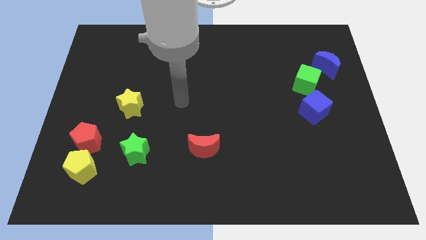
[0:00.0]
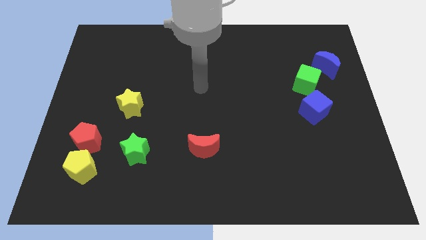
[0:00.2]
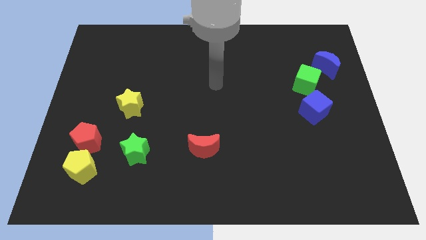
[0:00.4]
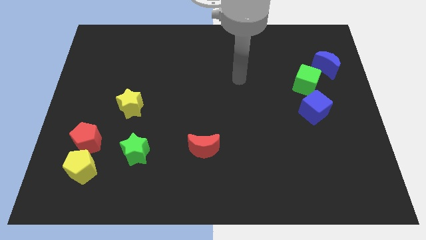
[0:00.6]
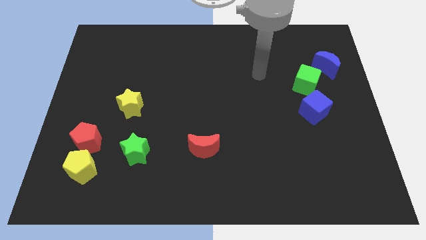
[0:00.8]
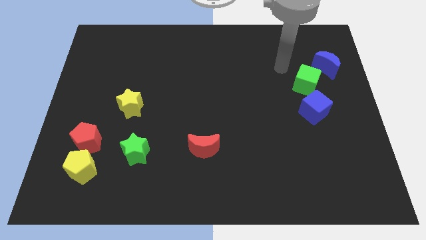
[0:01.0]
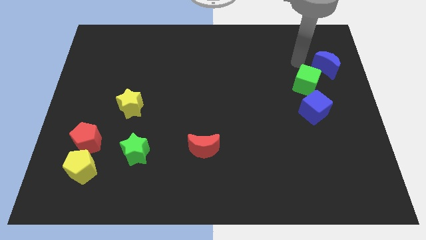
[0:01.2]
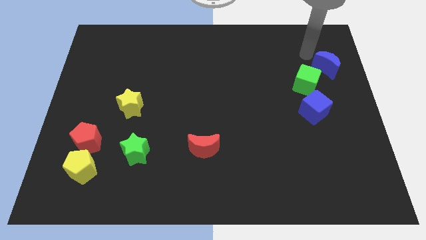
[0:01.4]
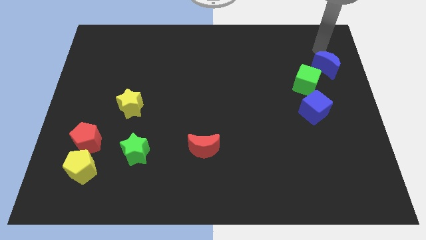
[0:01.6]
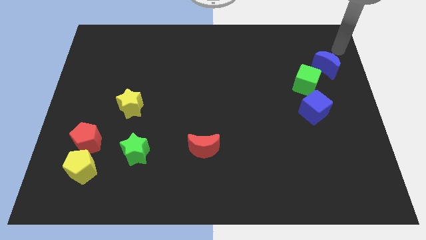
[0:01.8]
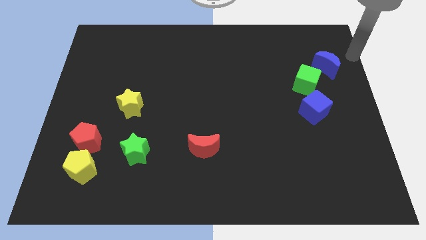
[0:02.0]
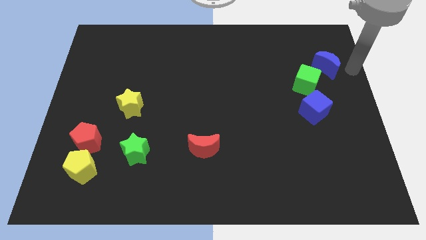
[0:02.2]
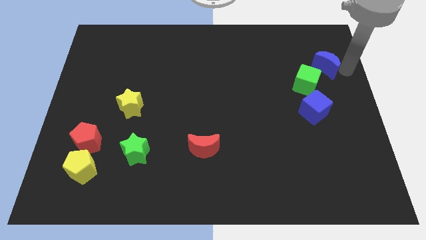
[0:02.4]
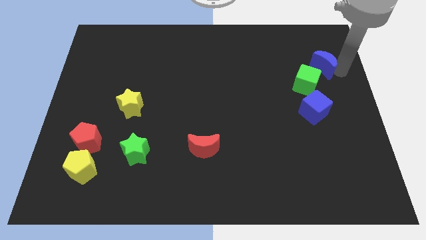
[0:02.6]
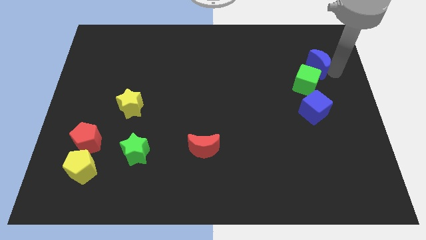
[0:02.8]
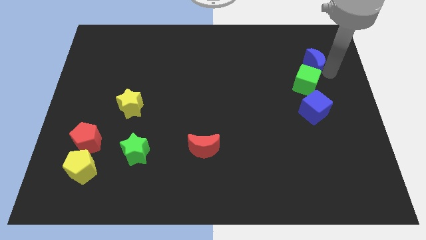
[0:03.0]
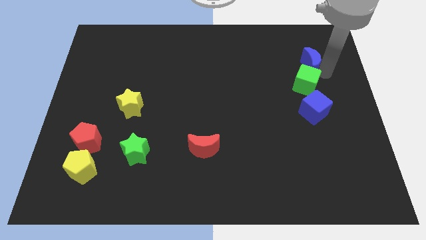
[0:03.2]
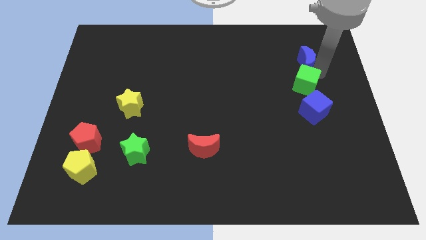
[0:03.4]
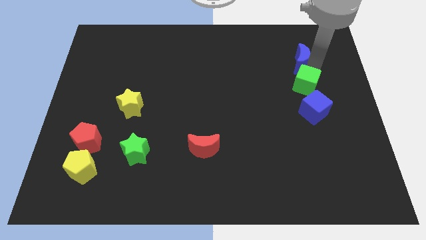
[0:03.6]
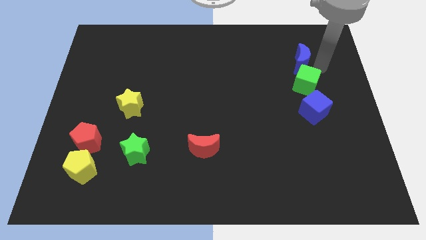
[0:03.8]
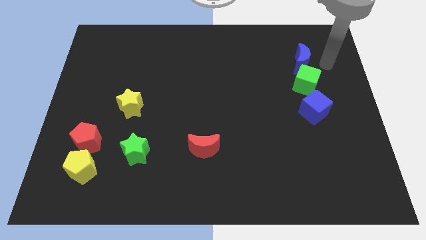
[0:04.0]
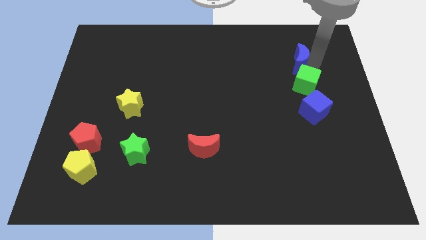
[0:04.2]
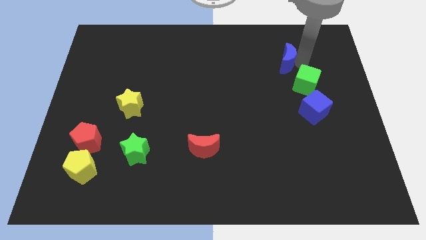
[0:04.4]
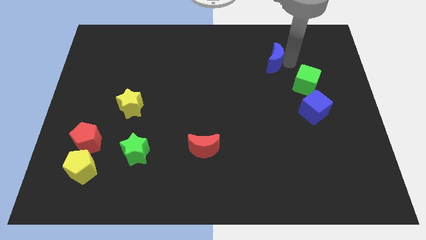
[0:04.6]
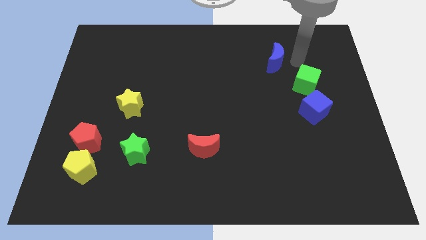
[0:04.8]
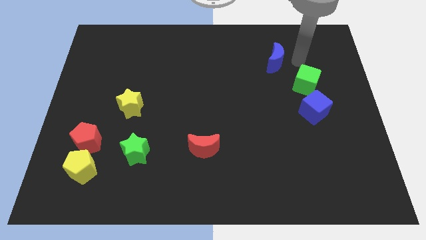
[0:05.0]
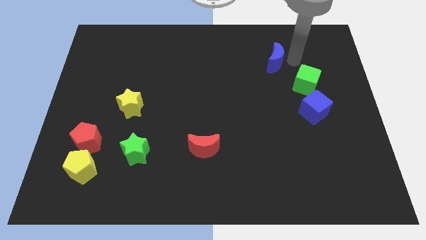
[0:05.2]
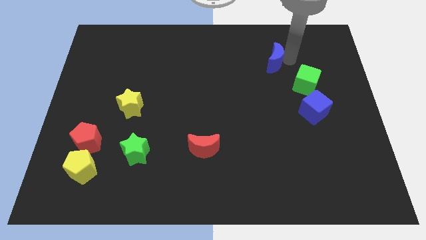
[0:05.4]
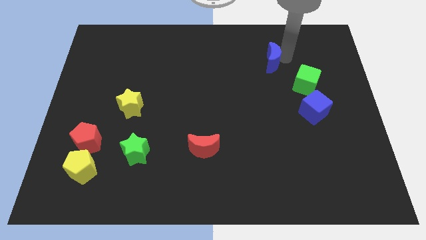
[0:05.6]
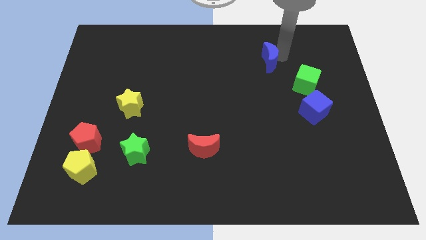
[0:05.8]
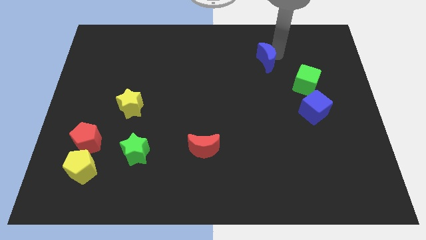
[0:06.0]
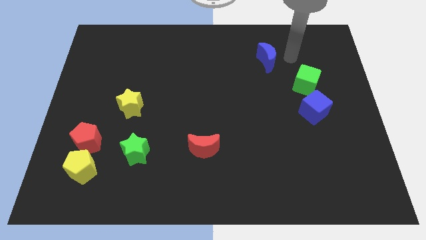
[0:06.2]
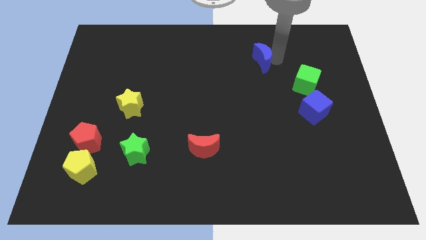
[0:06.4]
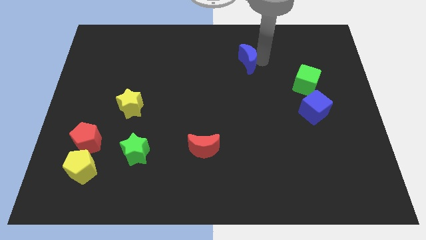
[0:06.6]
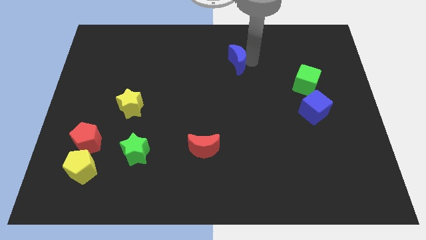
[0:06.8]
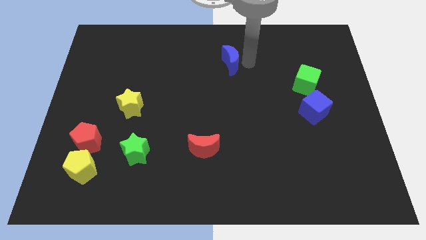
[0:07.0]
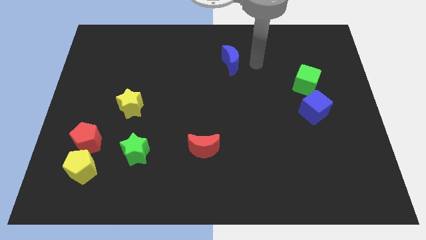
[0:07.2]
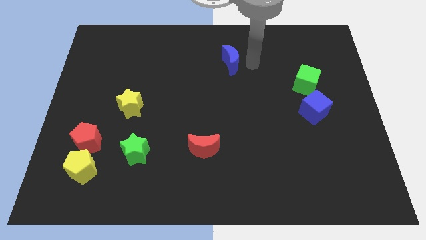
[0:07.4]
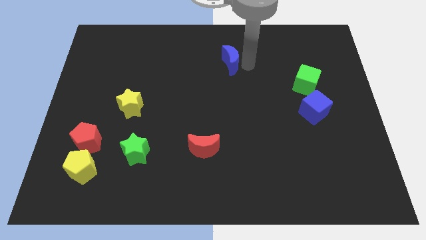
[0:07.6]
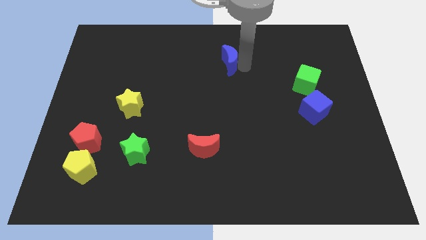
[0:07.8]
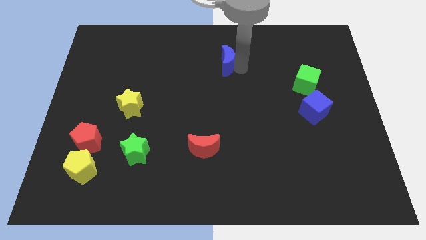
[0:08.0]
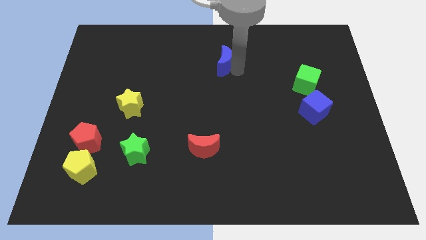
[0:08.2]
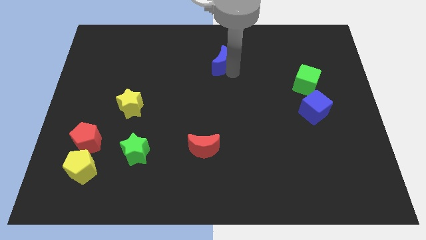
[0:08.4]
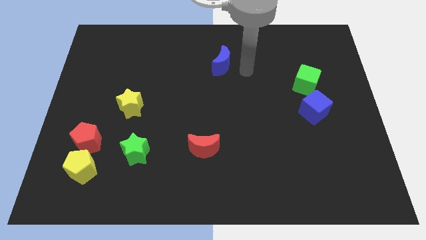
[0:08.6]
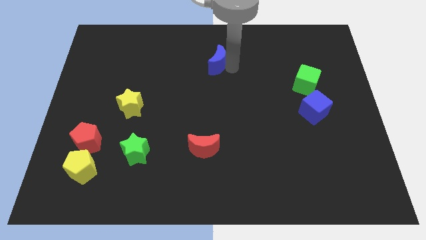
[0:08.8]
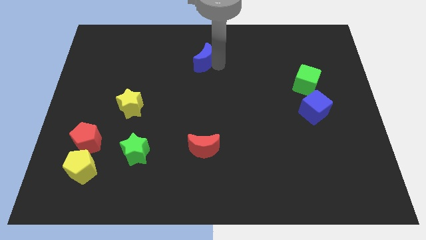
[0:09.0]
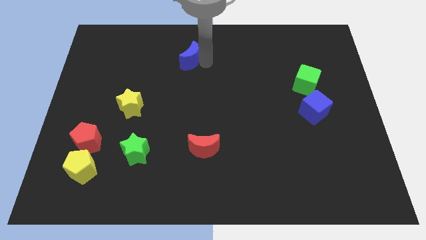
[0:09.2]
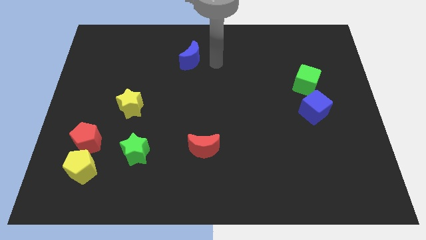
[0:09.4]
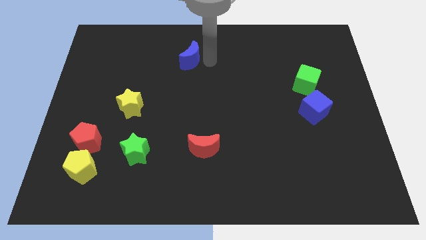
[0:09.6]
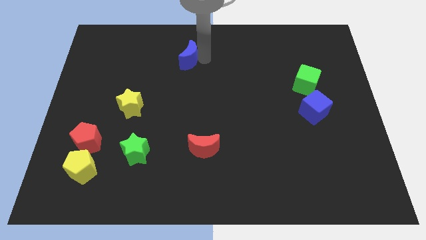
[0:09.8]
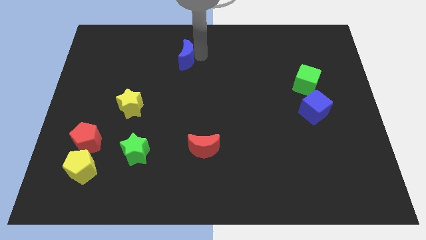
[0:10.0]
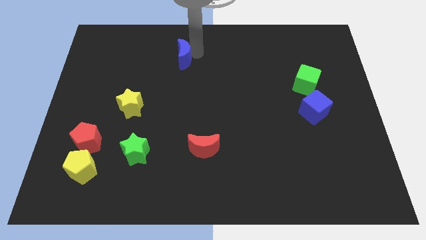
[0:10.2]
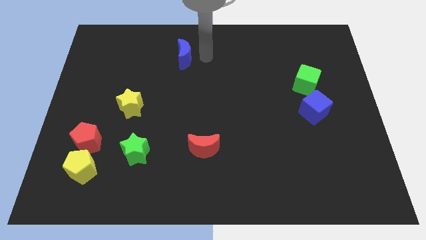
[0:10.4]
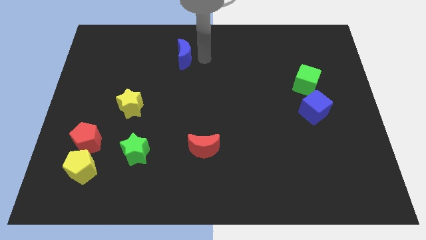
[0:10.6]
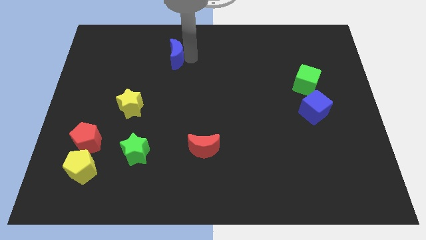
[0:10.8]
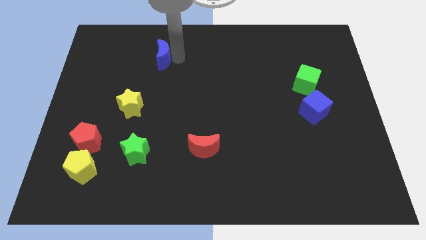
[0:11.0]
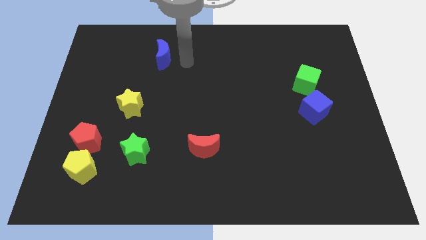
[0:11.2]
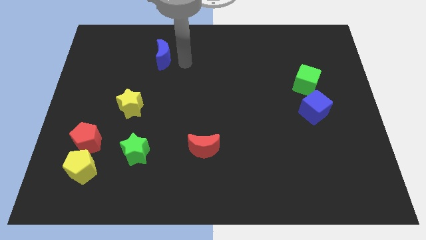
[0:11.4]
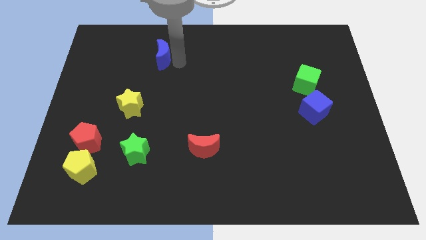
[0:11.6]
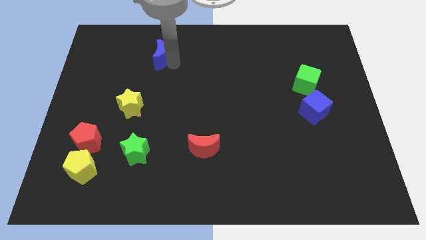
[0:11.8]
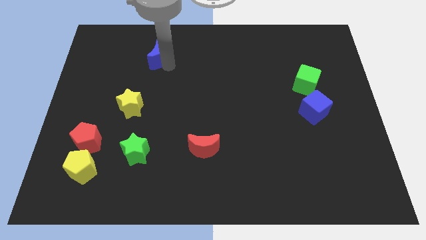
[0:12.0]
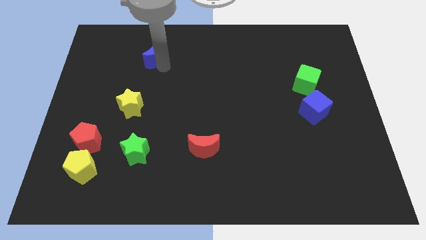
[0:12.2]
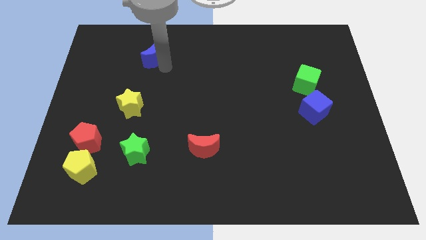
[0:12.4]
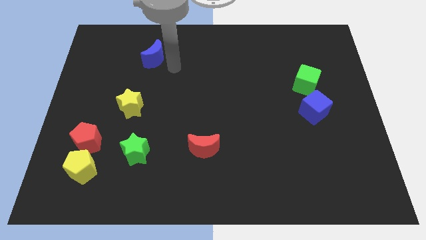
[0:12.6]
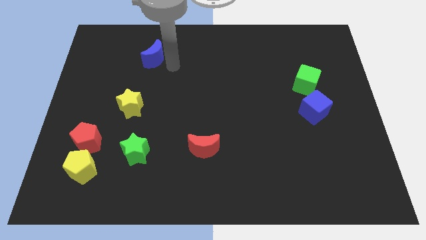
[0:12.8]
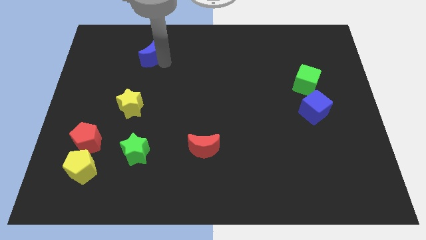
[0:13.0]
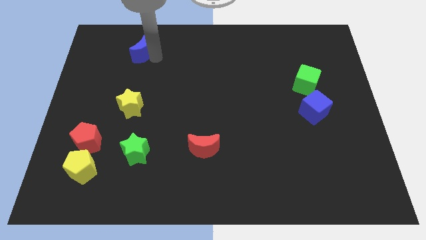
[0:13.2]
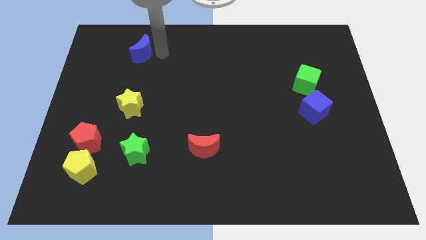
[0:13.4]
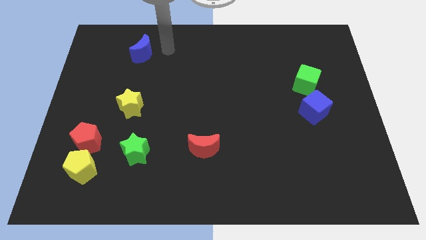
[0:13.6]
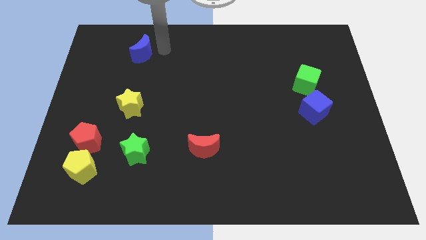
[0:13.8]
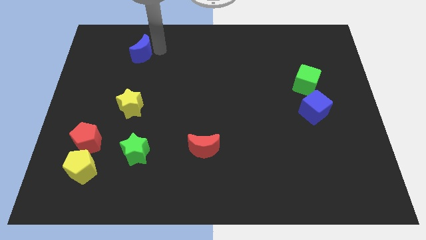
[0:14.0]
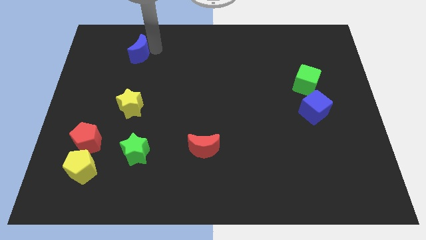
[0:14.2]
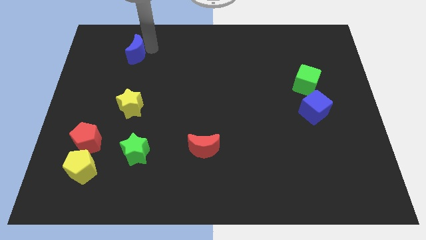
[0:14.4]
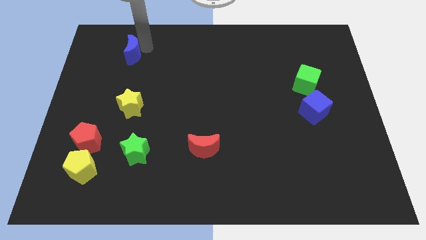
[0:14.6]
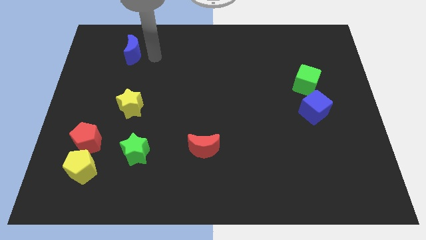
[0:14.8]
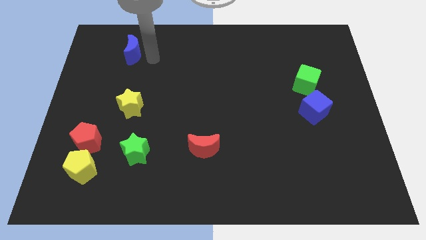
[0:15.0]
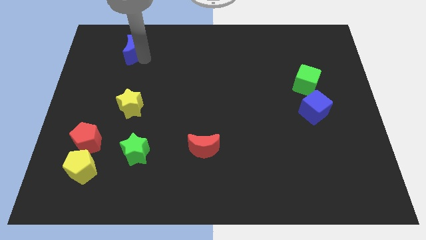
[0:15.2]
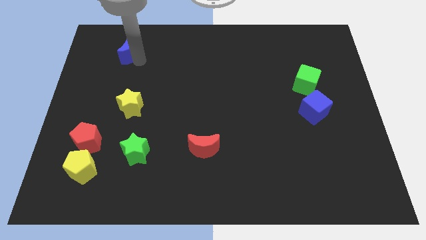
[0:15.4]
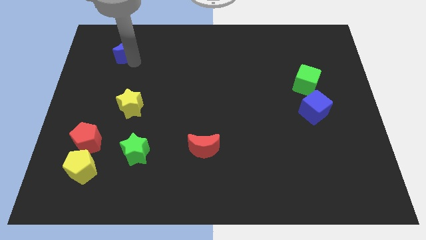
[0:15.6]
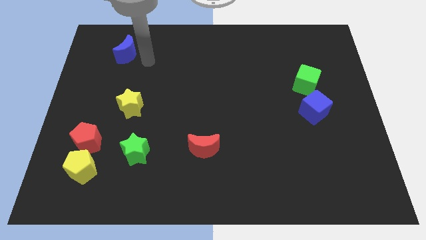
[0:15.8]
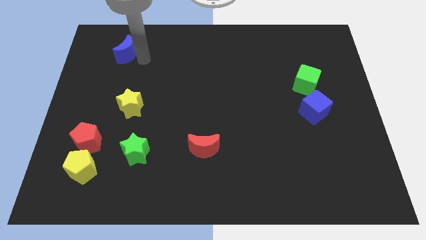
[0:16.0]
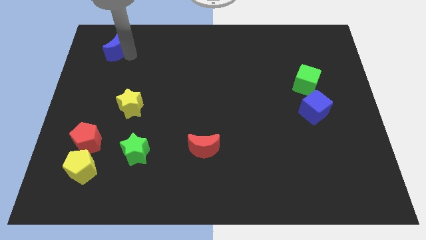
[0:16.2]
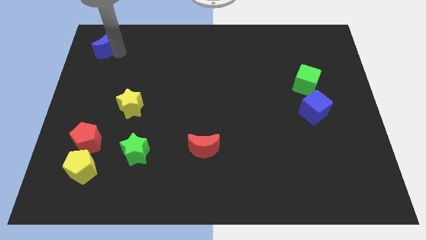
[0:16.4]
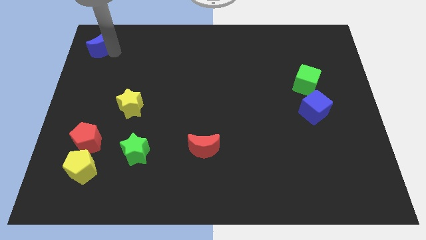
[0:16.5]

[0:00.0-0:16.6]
move the blue moon to the upper left corner
